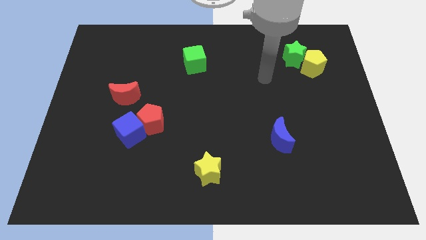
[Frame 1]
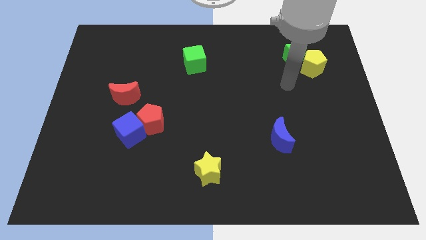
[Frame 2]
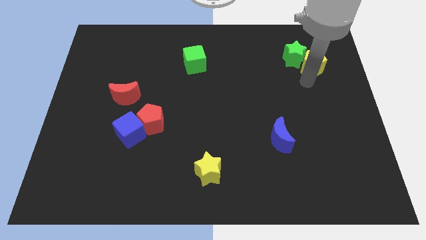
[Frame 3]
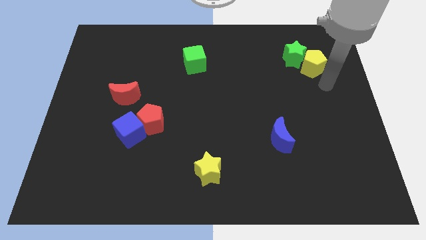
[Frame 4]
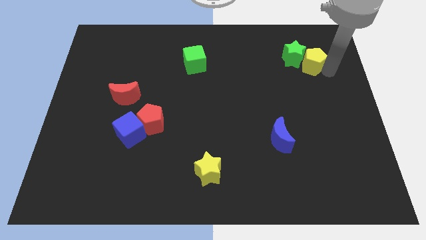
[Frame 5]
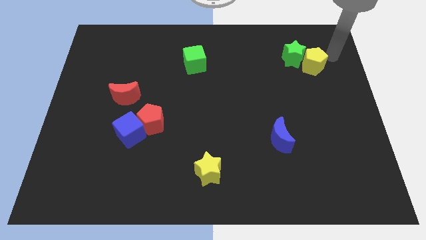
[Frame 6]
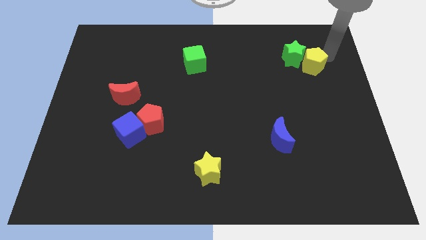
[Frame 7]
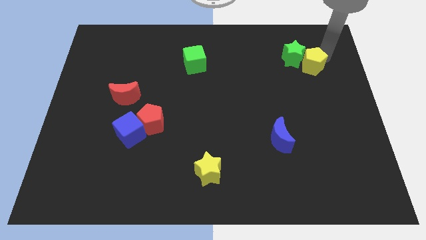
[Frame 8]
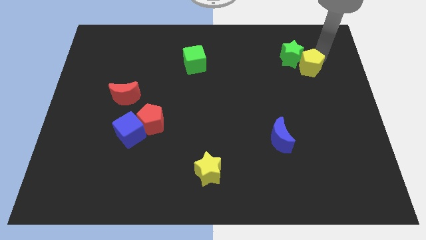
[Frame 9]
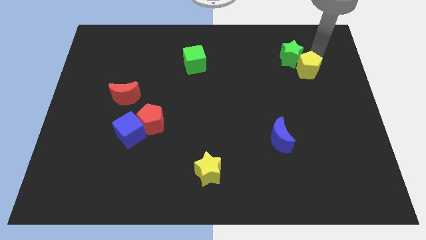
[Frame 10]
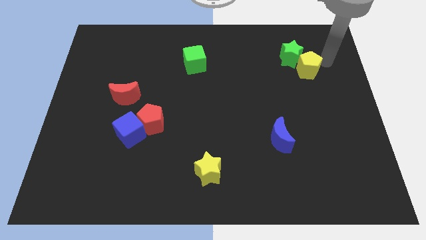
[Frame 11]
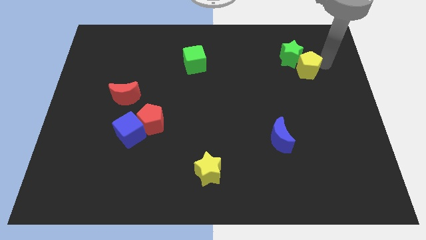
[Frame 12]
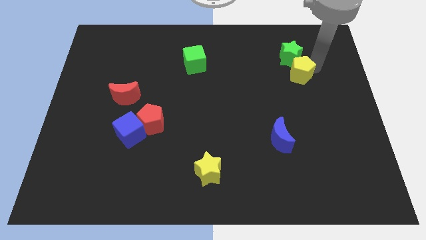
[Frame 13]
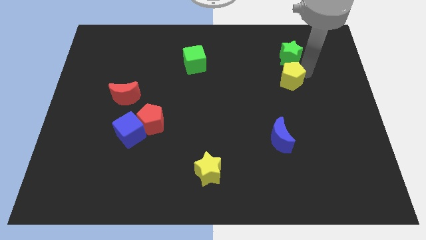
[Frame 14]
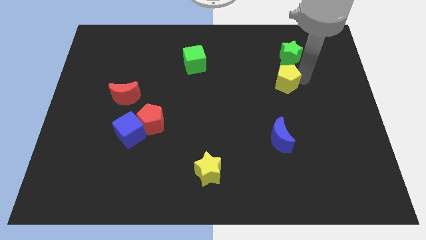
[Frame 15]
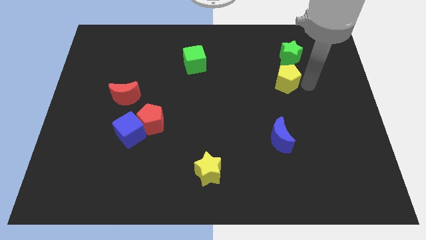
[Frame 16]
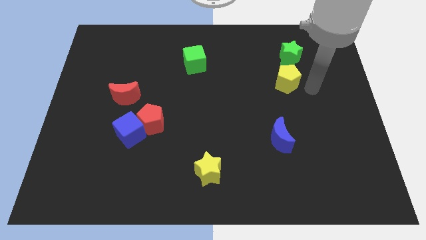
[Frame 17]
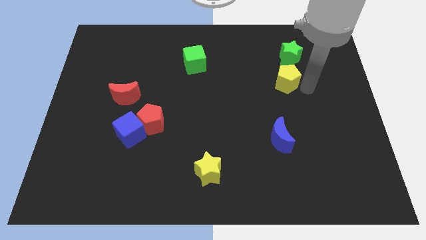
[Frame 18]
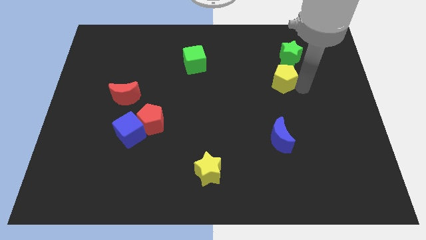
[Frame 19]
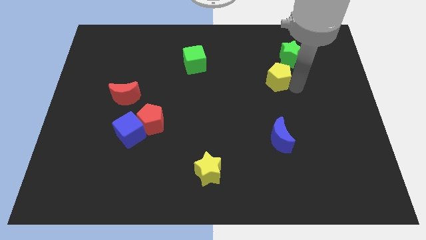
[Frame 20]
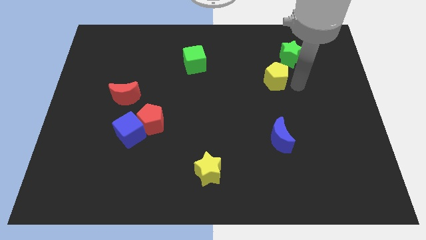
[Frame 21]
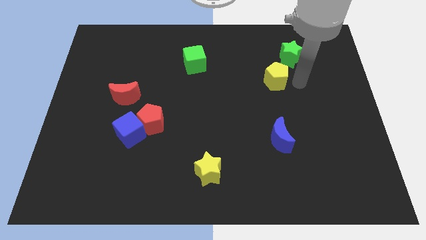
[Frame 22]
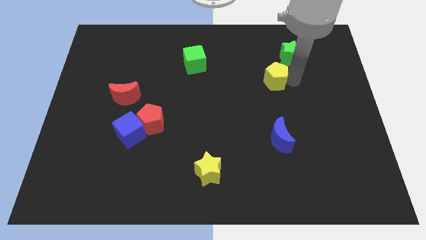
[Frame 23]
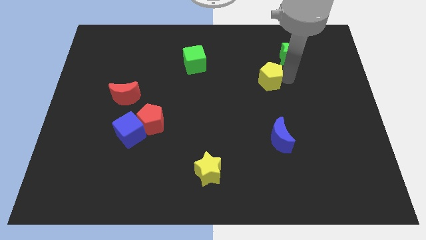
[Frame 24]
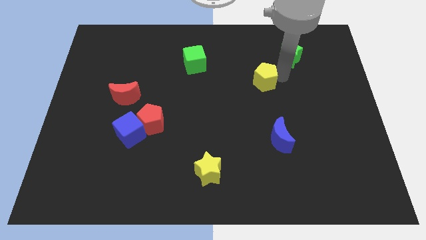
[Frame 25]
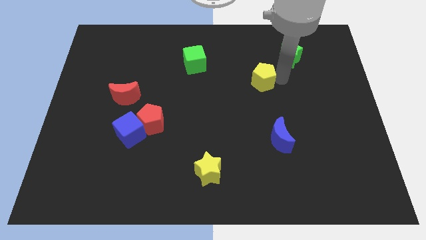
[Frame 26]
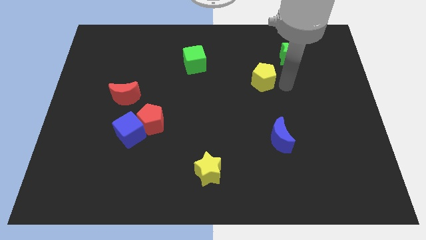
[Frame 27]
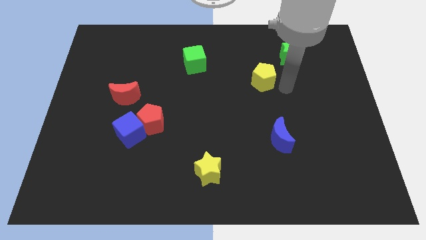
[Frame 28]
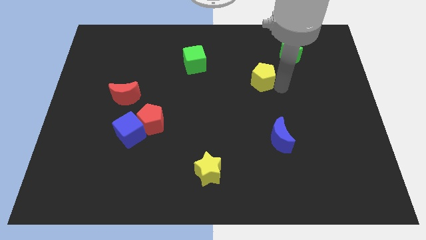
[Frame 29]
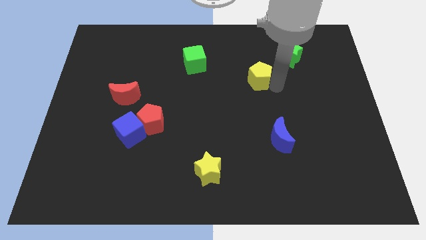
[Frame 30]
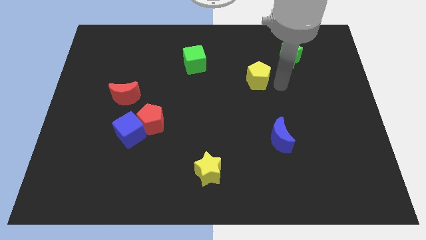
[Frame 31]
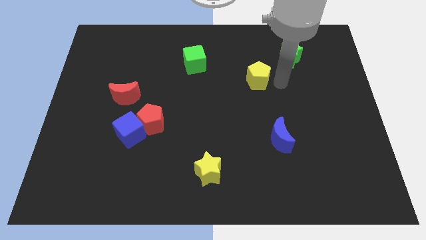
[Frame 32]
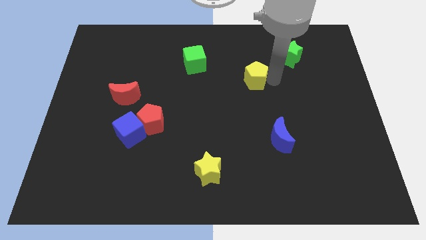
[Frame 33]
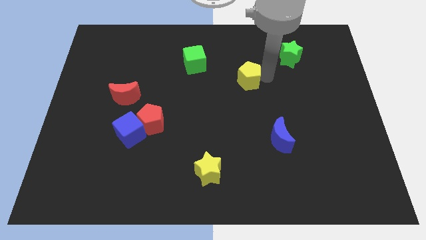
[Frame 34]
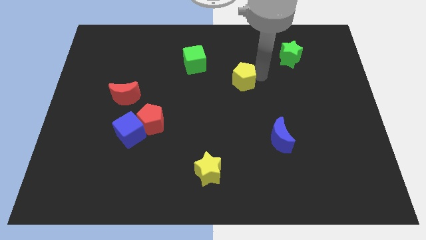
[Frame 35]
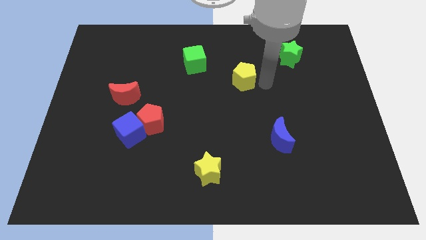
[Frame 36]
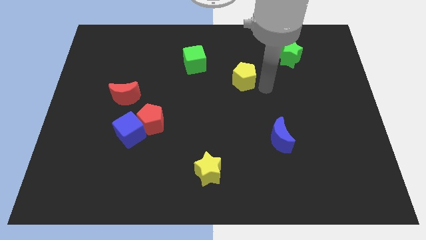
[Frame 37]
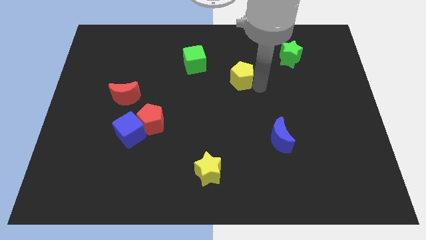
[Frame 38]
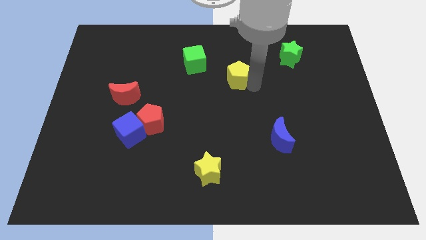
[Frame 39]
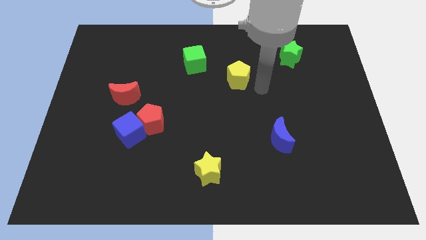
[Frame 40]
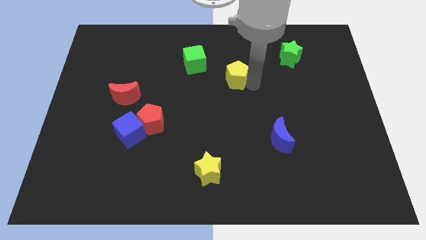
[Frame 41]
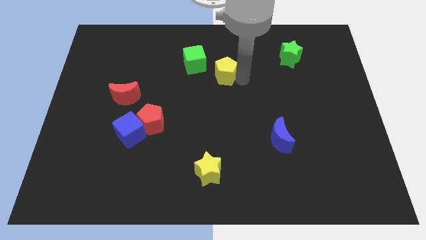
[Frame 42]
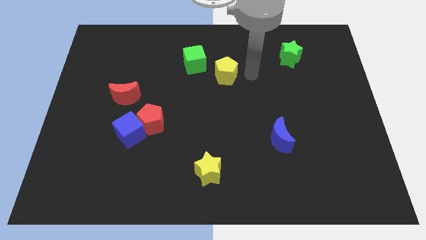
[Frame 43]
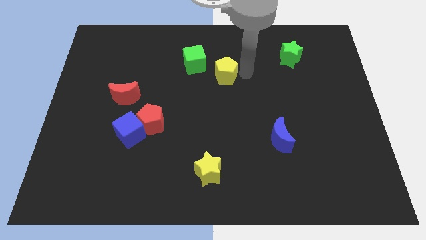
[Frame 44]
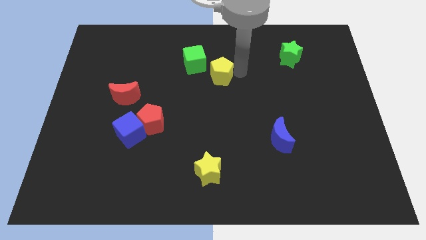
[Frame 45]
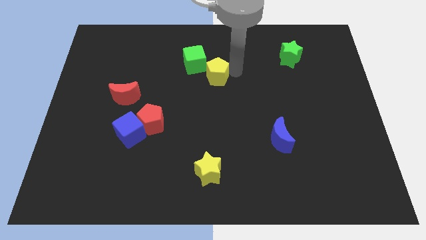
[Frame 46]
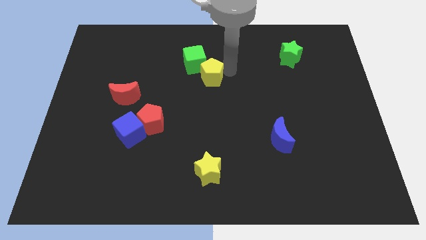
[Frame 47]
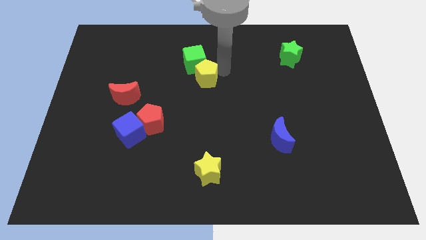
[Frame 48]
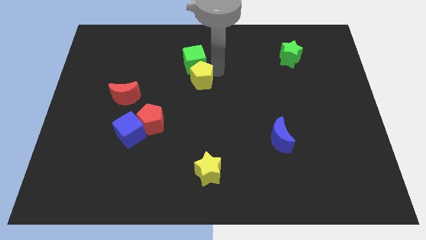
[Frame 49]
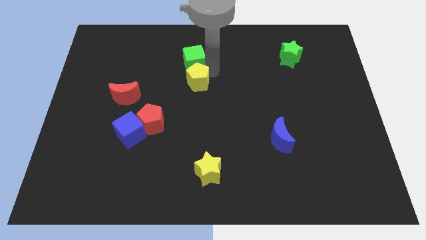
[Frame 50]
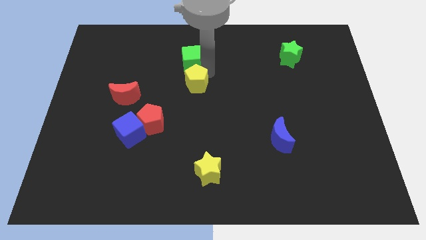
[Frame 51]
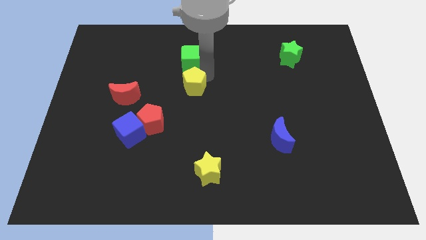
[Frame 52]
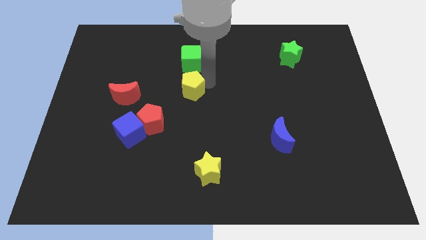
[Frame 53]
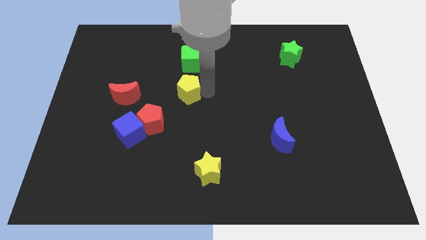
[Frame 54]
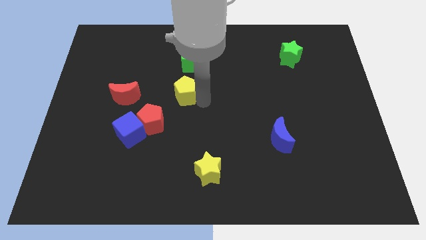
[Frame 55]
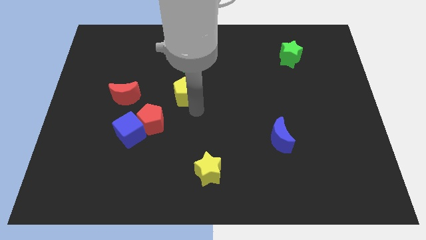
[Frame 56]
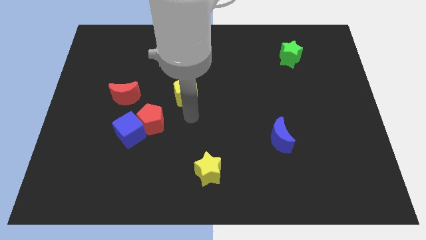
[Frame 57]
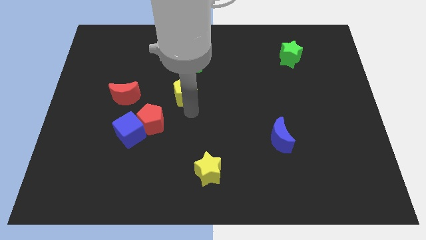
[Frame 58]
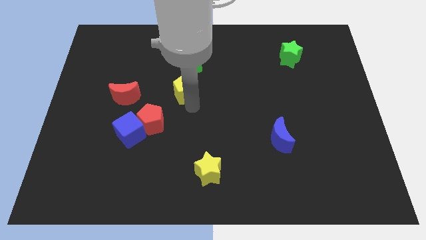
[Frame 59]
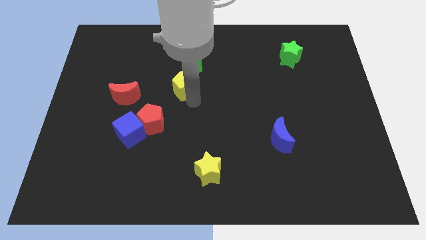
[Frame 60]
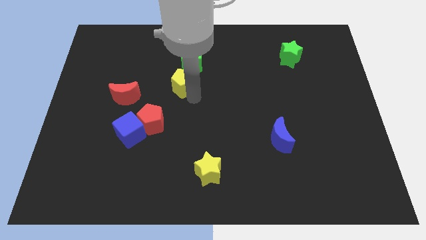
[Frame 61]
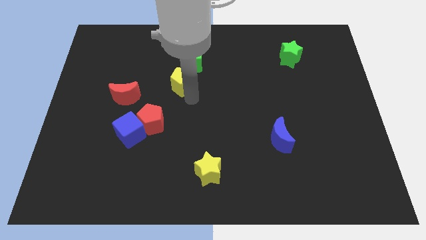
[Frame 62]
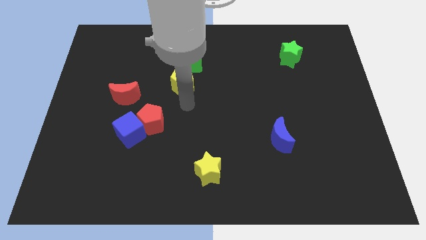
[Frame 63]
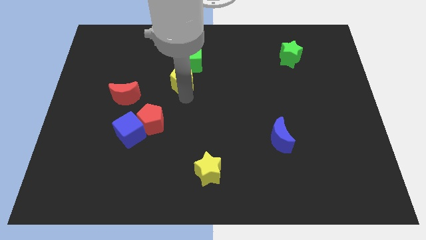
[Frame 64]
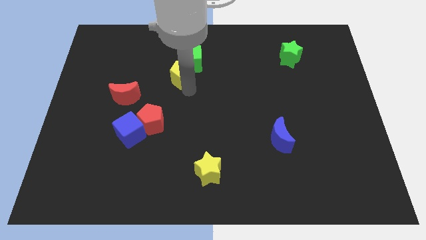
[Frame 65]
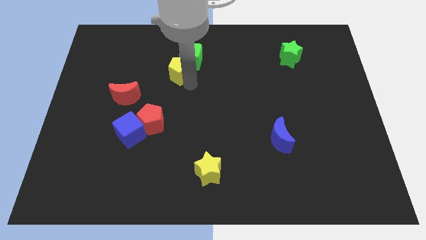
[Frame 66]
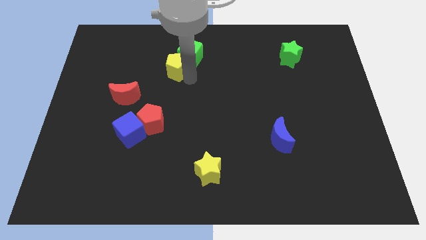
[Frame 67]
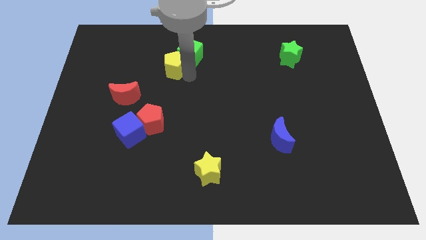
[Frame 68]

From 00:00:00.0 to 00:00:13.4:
move the yellow pentagon to the left side of the green cube

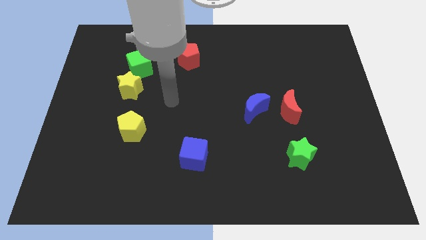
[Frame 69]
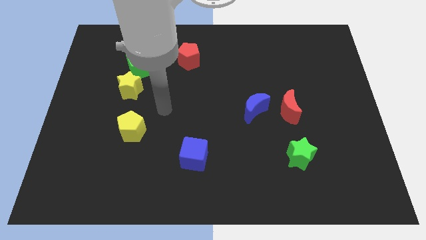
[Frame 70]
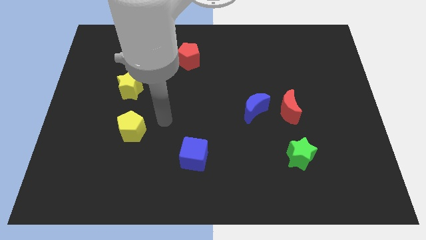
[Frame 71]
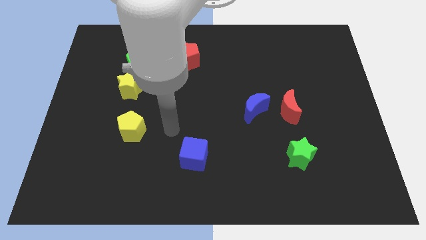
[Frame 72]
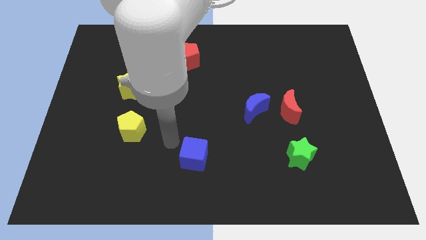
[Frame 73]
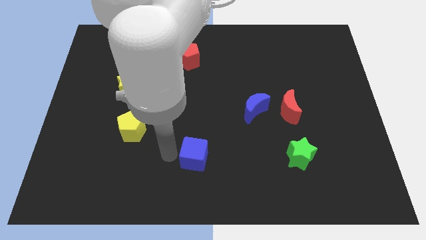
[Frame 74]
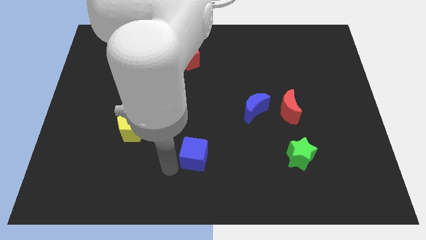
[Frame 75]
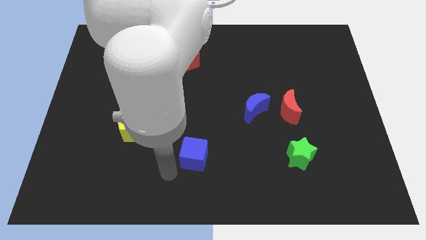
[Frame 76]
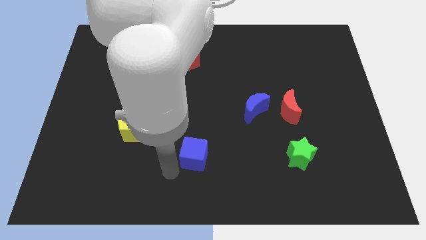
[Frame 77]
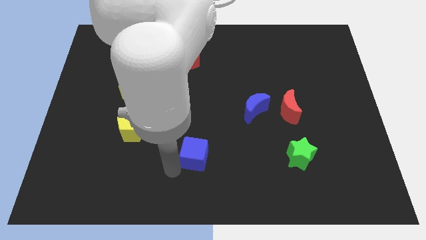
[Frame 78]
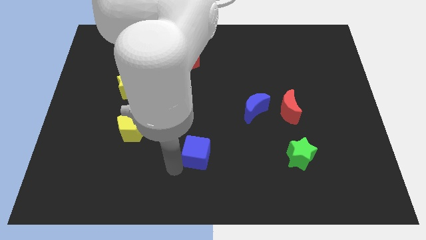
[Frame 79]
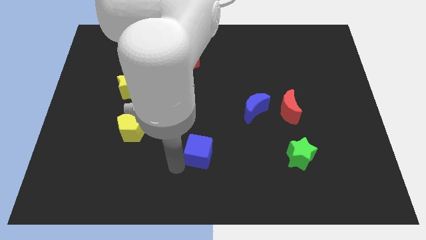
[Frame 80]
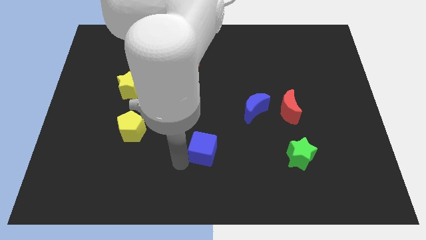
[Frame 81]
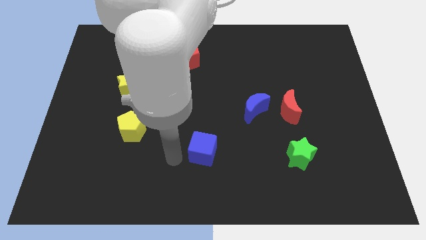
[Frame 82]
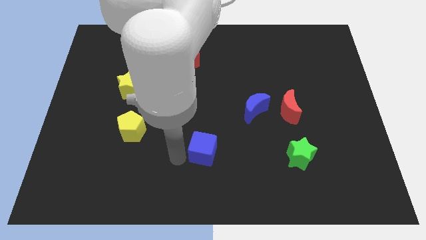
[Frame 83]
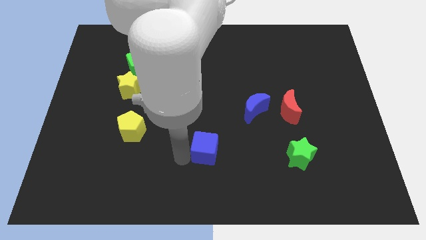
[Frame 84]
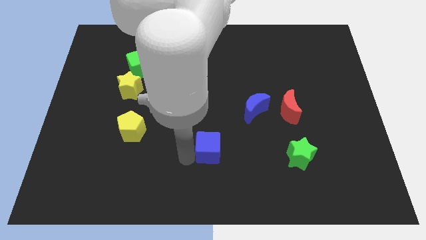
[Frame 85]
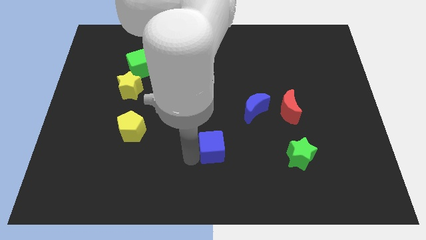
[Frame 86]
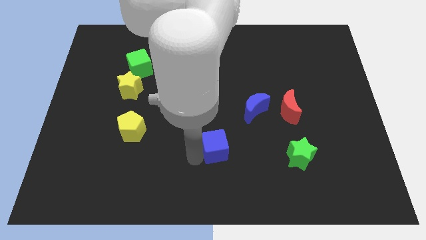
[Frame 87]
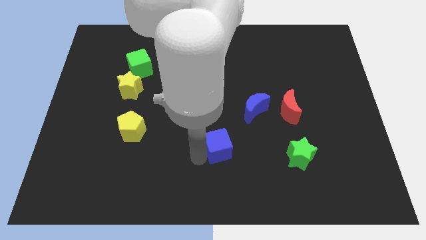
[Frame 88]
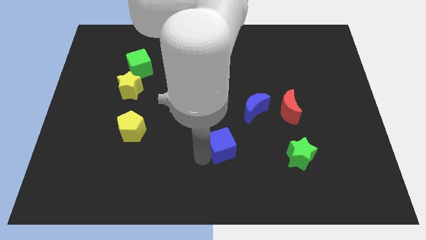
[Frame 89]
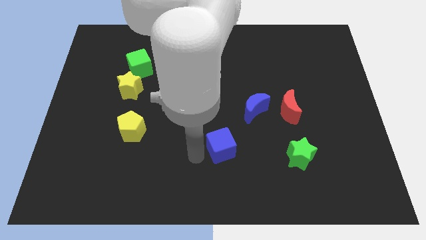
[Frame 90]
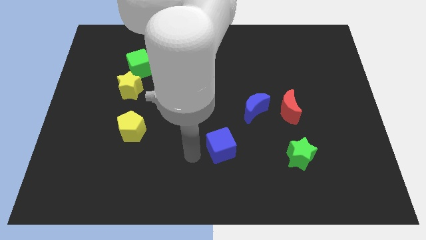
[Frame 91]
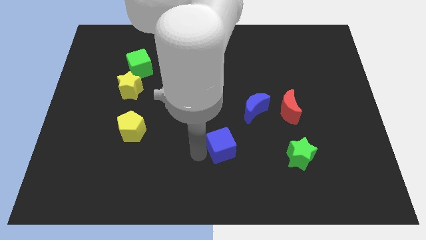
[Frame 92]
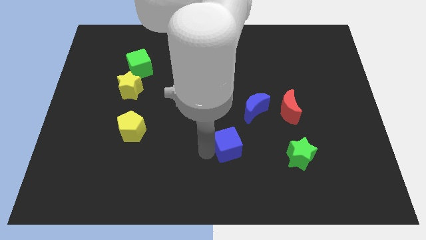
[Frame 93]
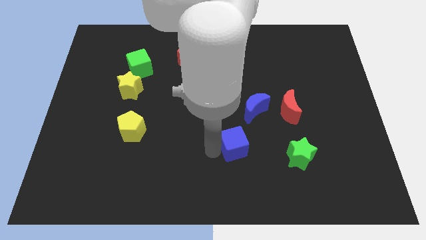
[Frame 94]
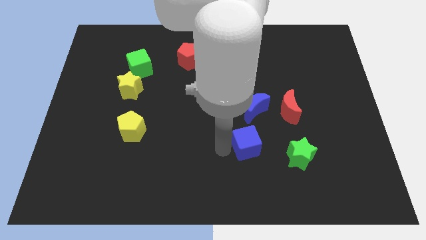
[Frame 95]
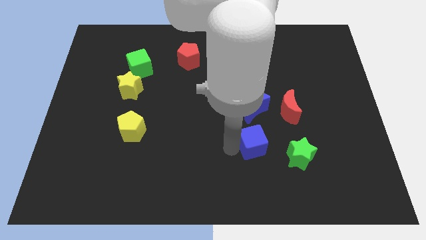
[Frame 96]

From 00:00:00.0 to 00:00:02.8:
put the blue cube to the top left of the green star
